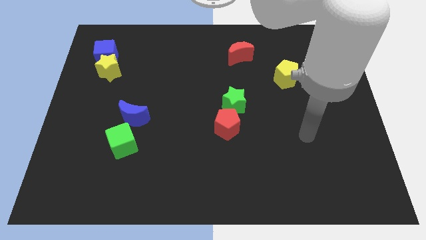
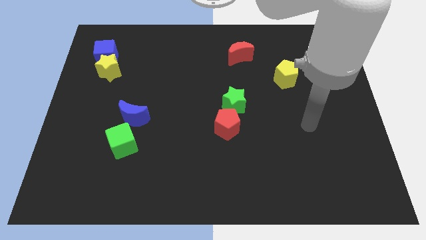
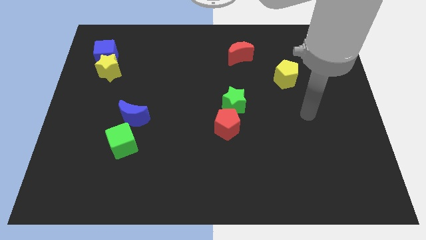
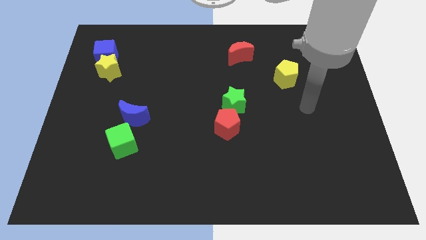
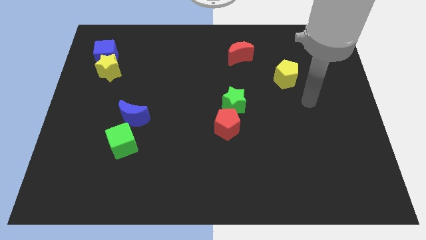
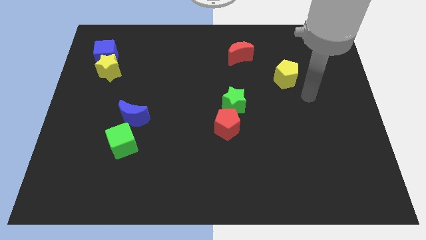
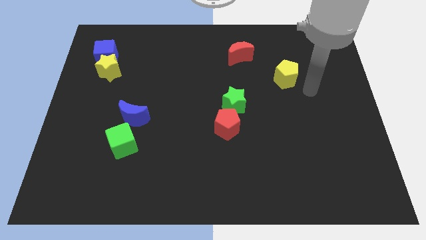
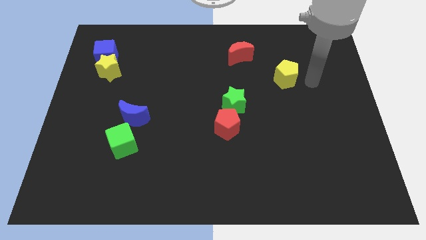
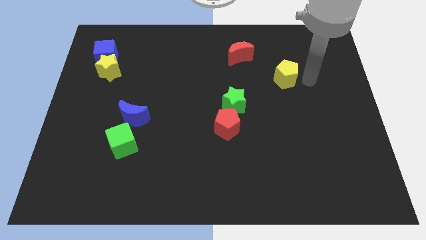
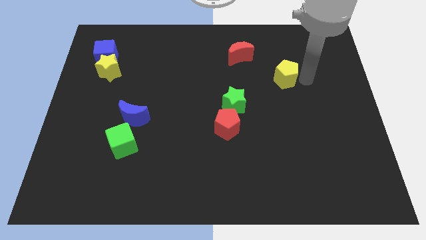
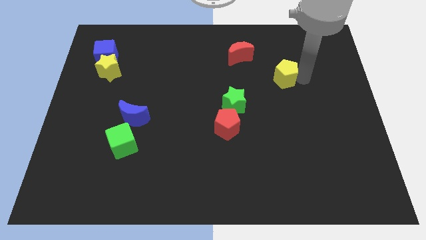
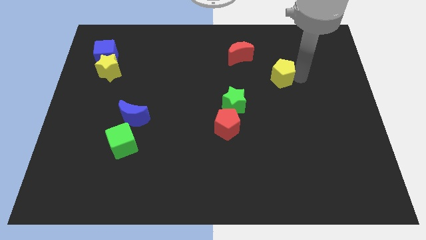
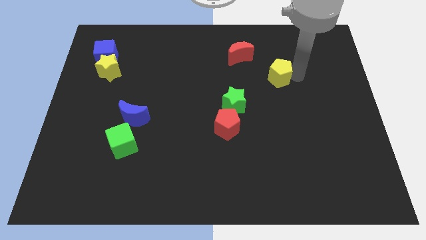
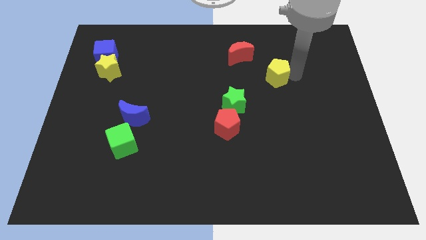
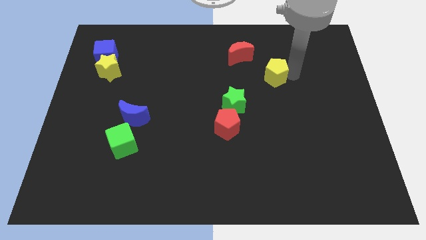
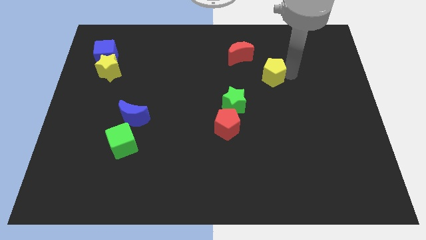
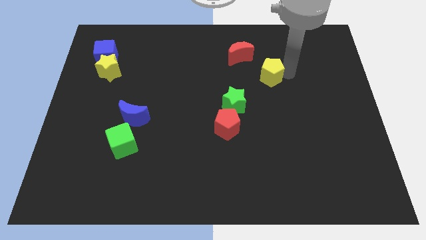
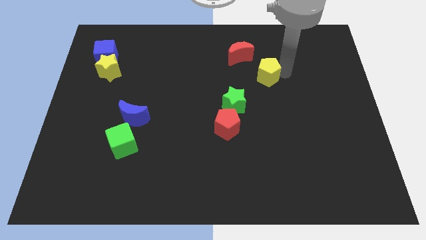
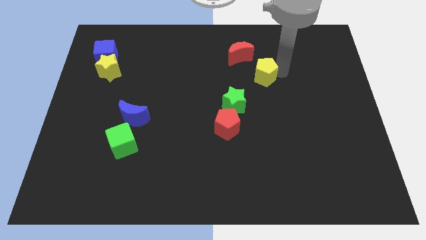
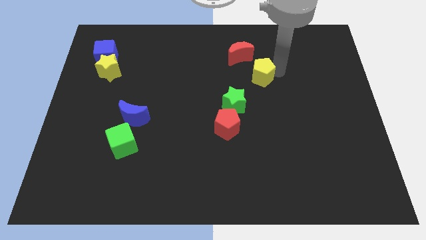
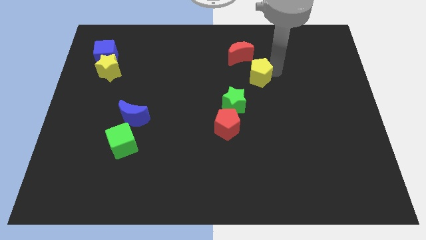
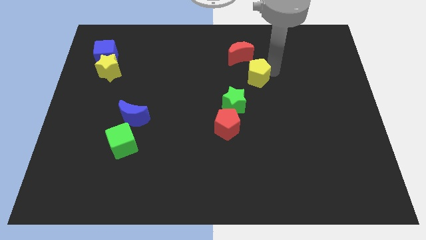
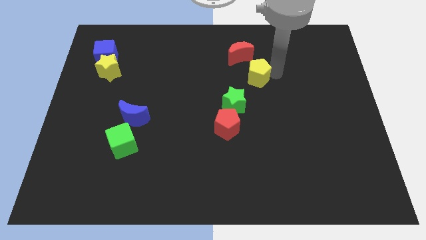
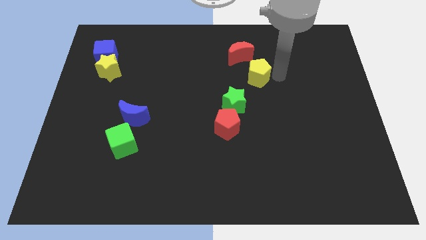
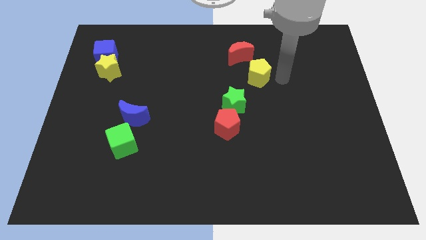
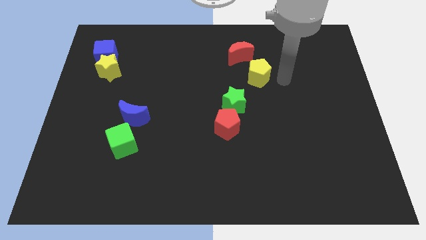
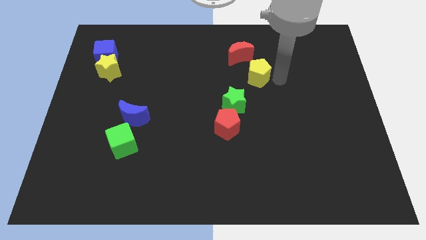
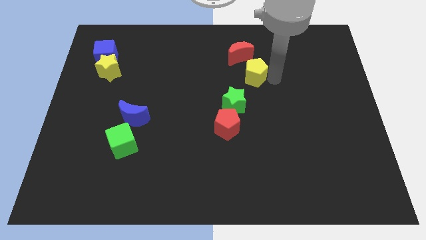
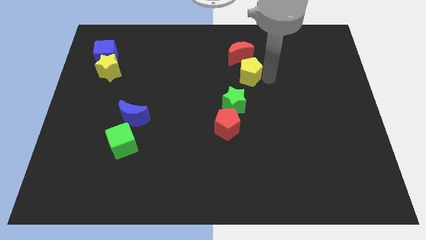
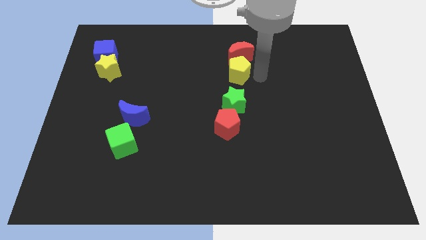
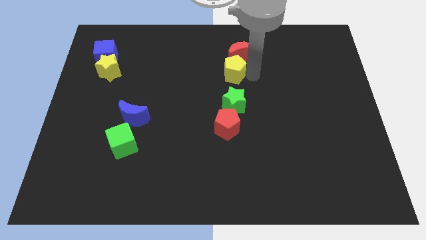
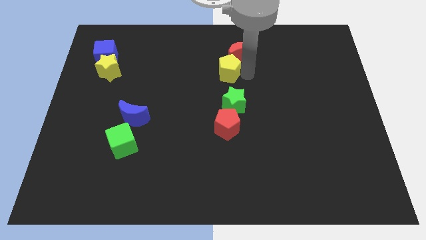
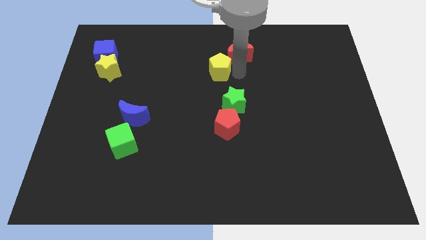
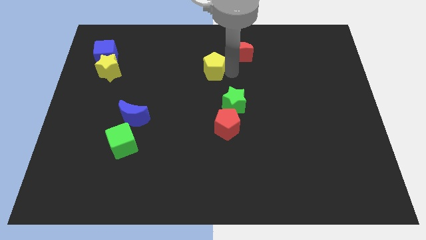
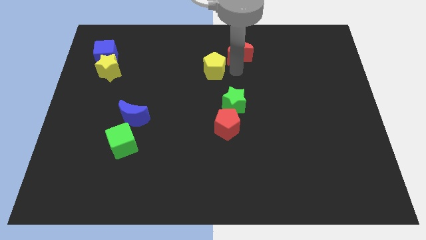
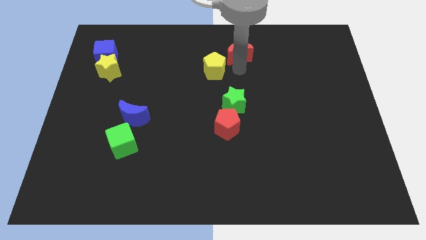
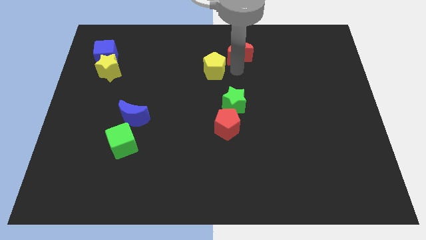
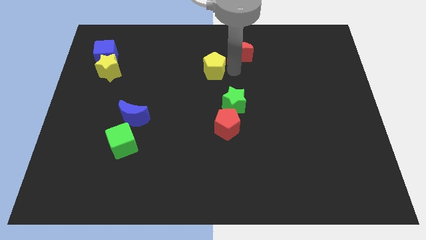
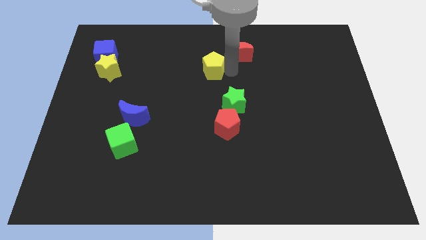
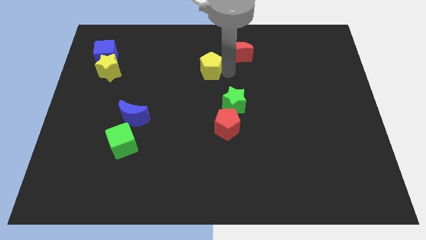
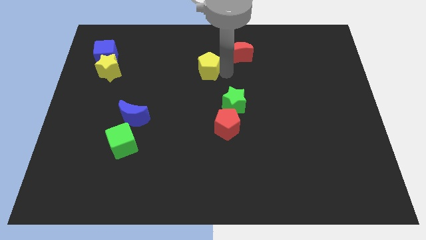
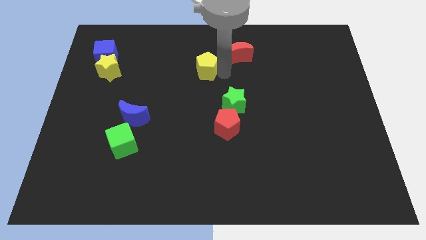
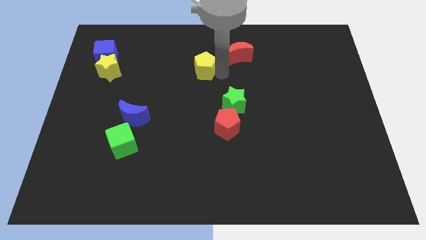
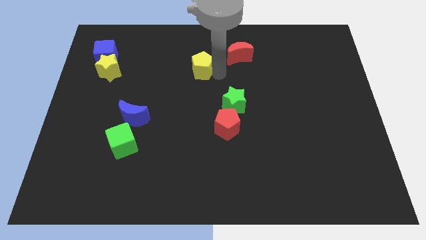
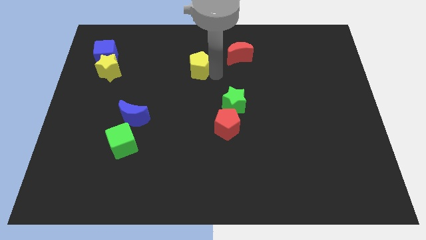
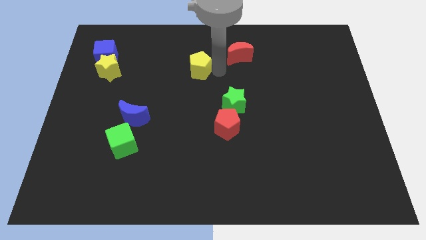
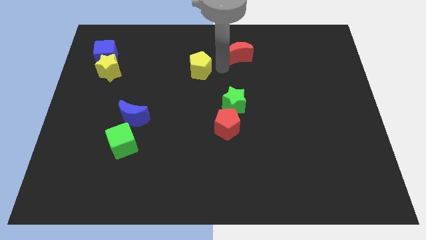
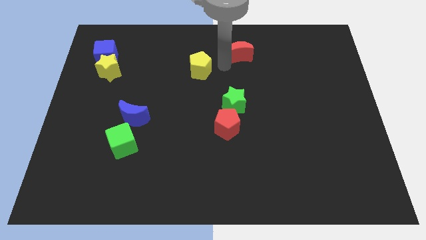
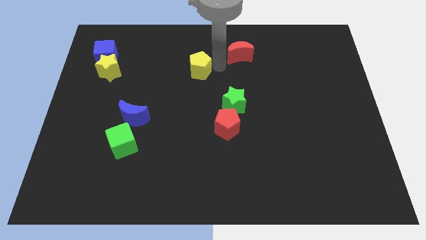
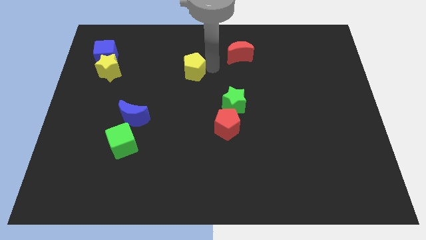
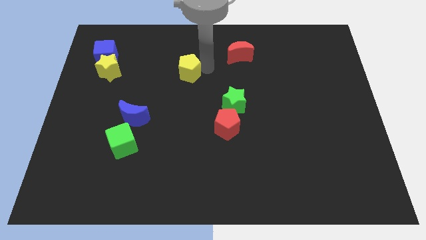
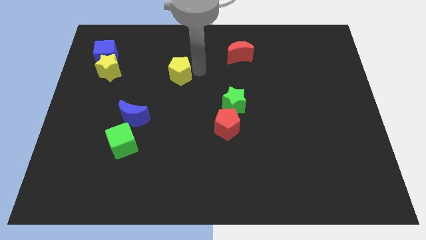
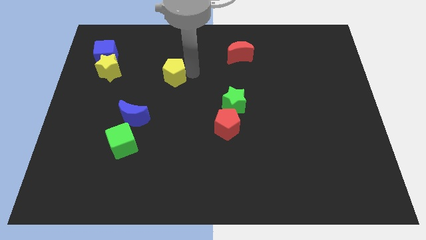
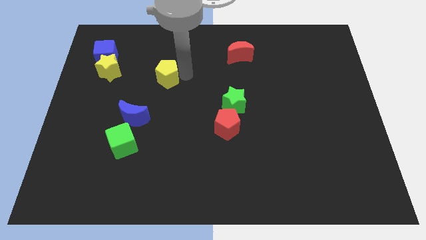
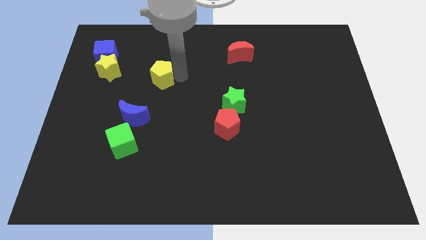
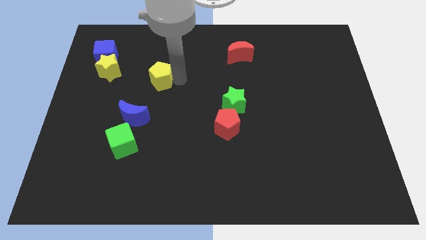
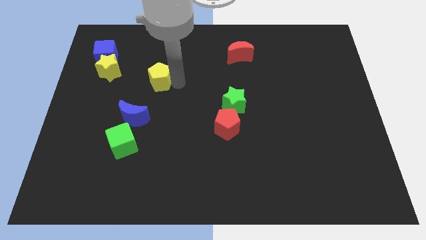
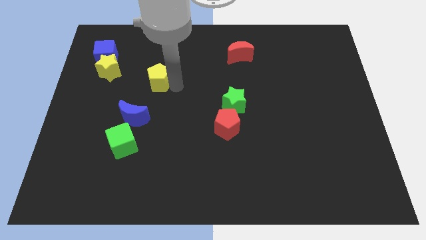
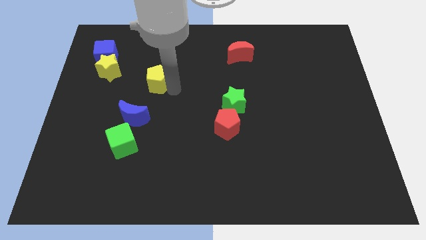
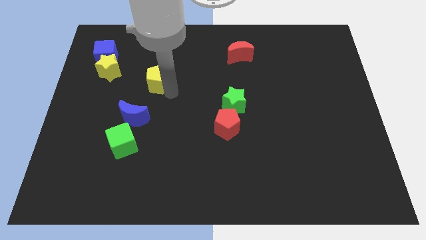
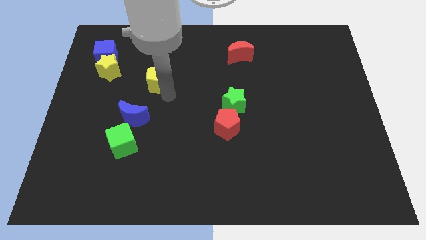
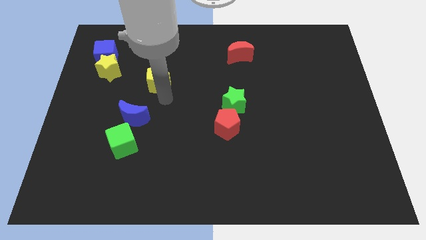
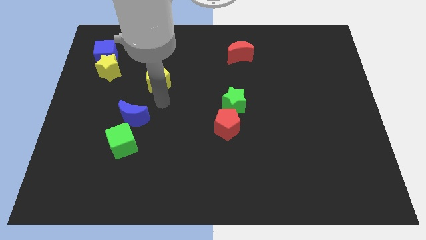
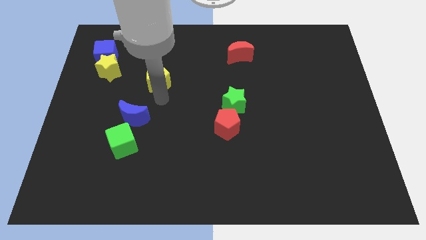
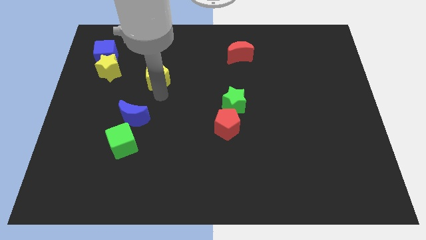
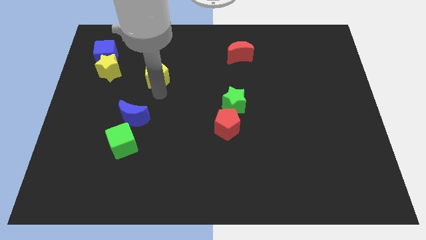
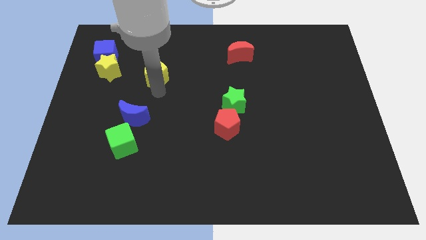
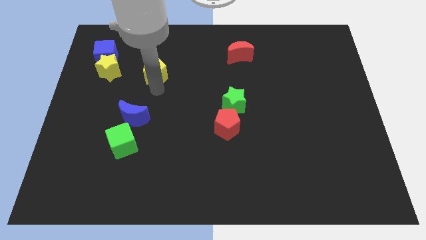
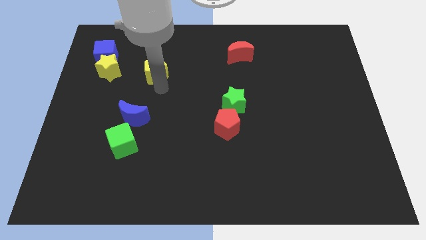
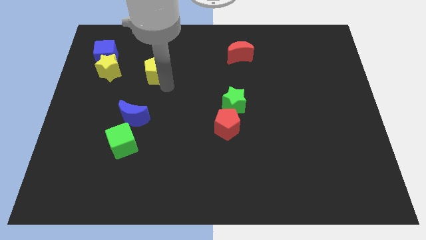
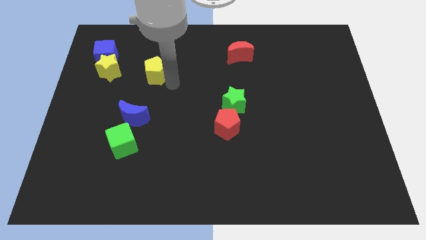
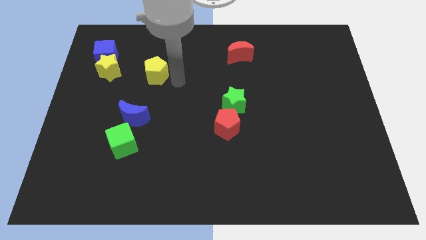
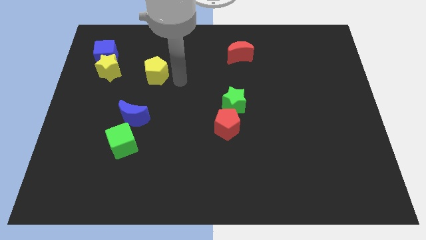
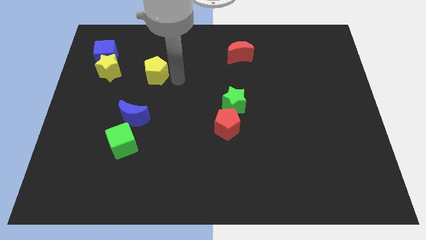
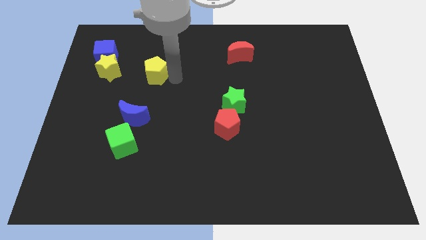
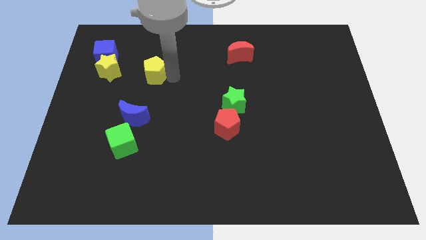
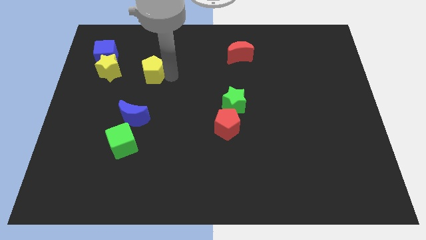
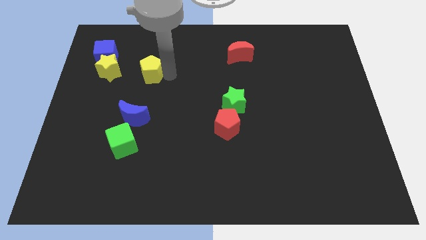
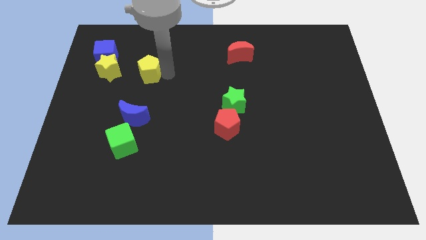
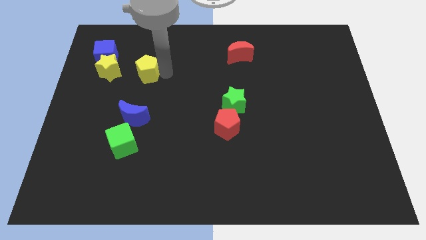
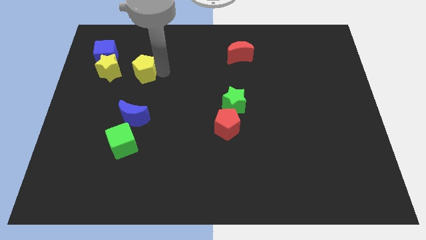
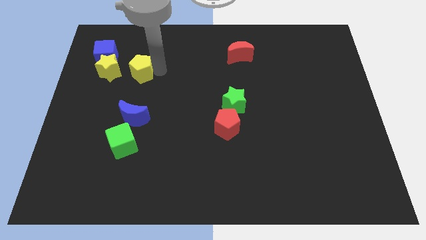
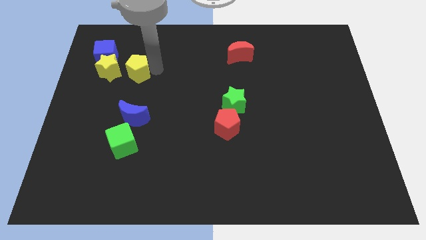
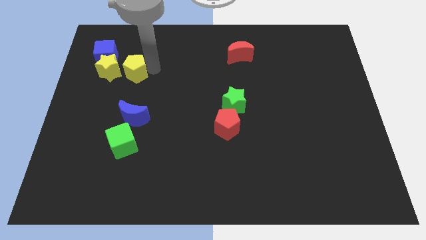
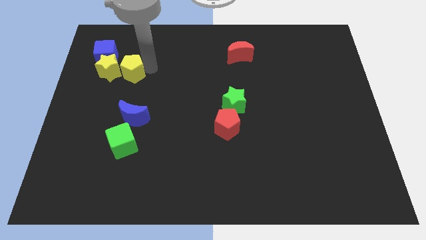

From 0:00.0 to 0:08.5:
put the yellow pentagon to the yellow star
